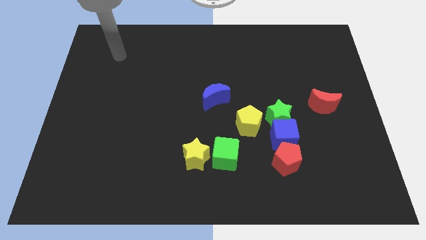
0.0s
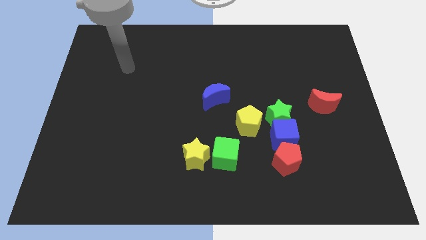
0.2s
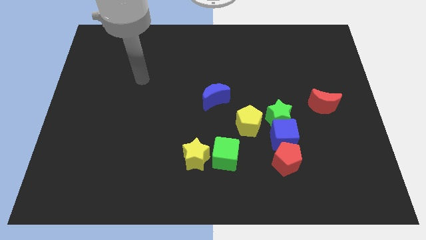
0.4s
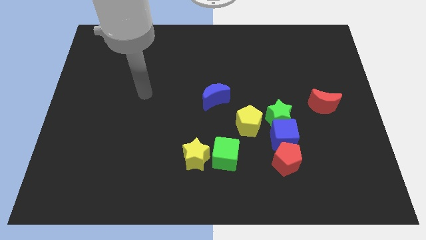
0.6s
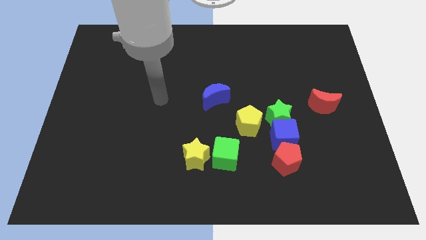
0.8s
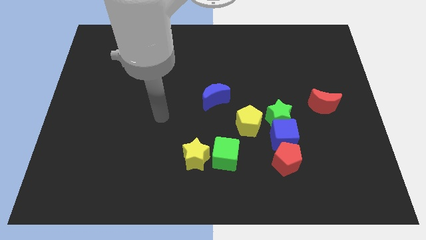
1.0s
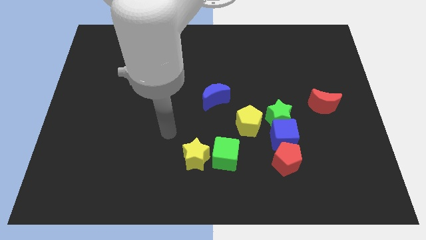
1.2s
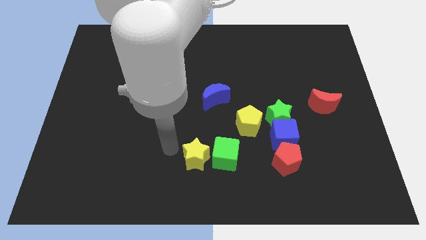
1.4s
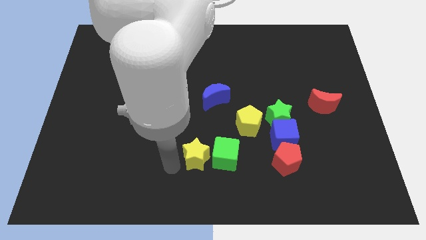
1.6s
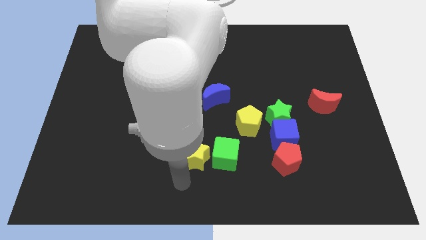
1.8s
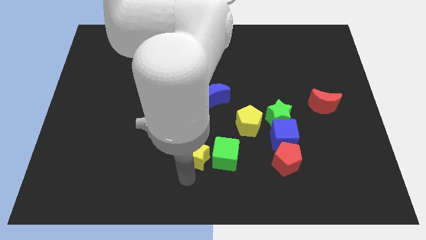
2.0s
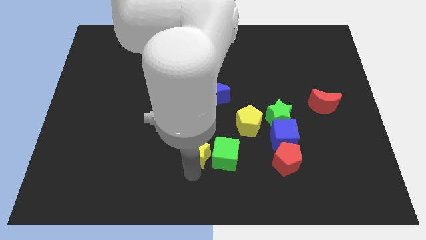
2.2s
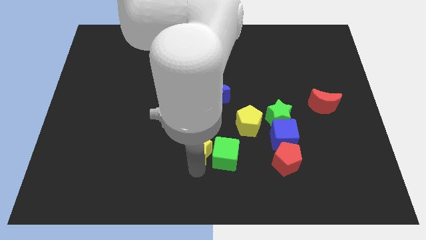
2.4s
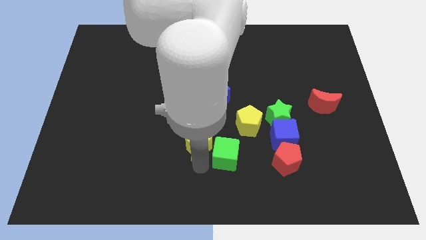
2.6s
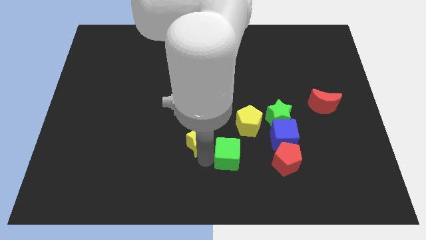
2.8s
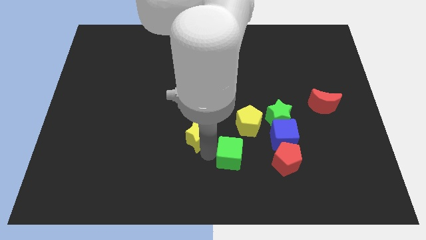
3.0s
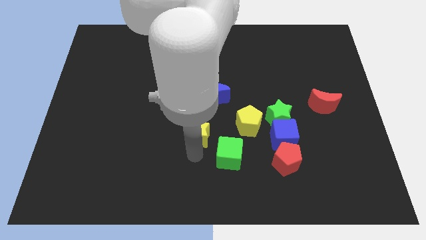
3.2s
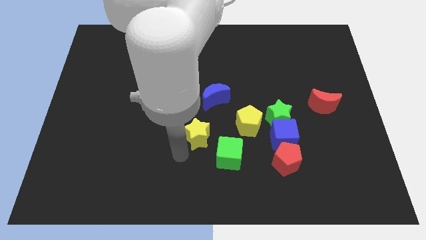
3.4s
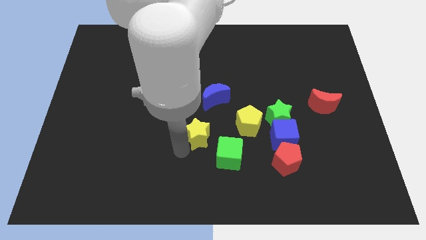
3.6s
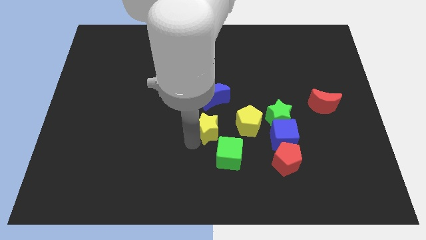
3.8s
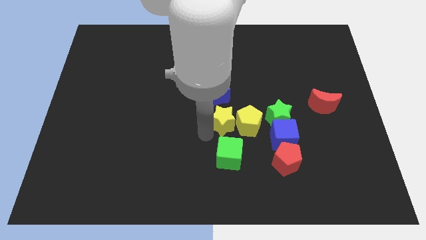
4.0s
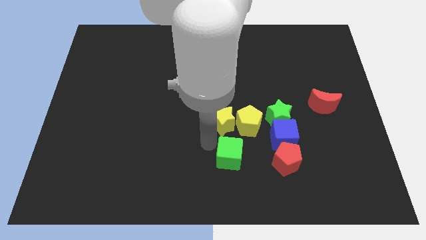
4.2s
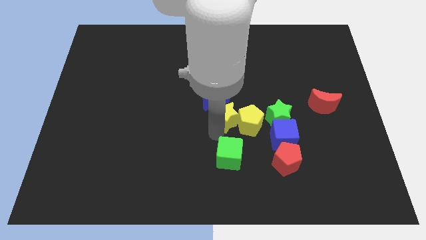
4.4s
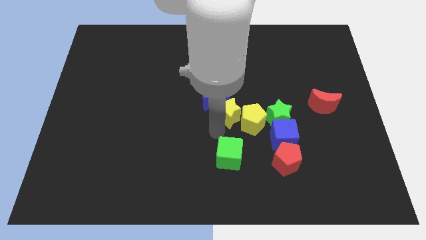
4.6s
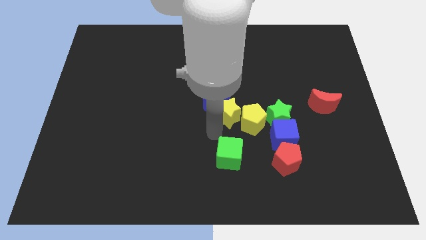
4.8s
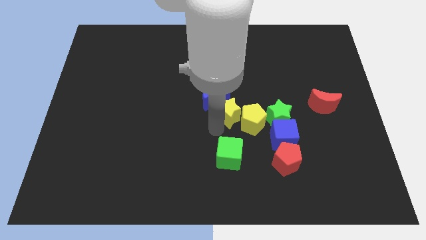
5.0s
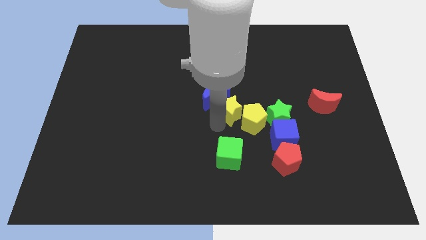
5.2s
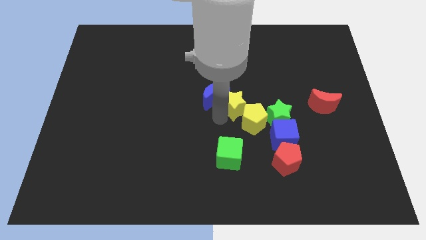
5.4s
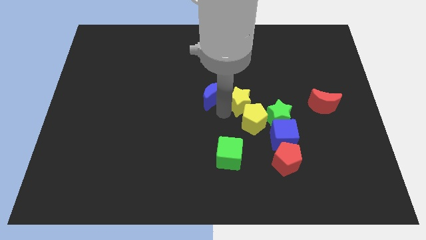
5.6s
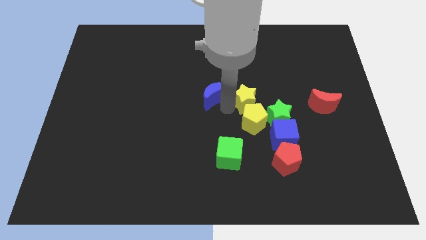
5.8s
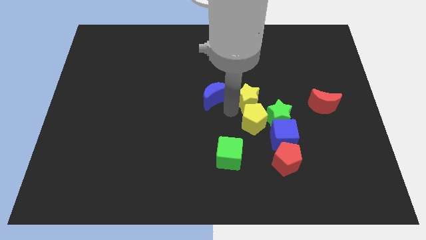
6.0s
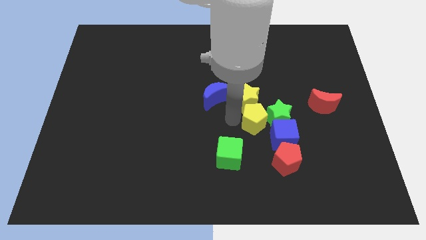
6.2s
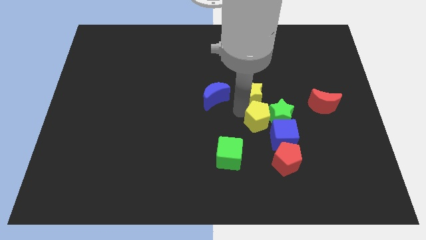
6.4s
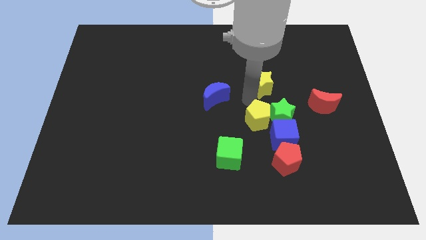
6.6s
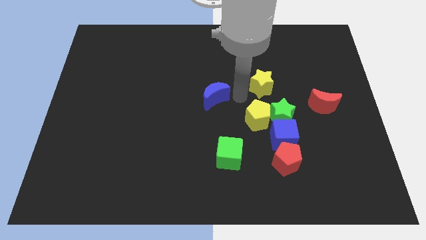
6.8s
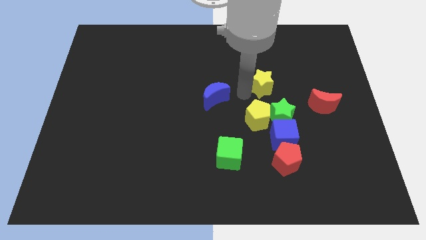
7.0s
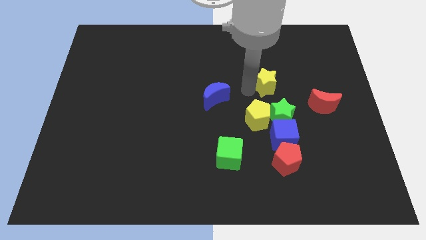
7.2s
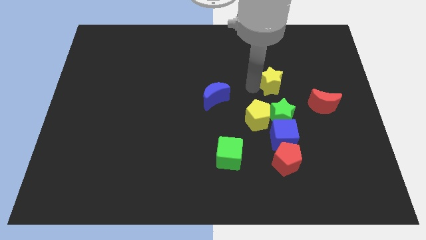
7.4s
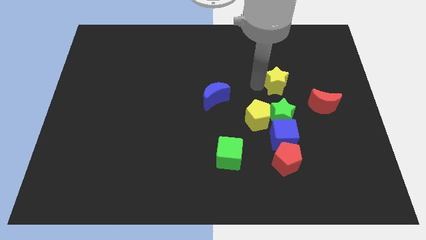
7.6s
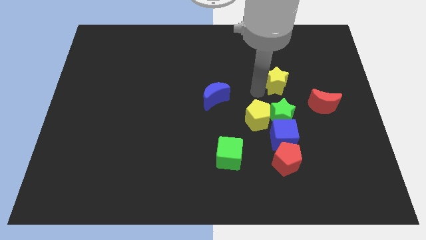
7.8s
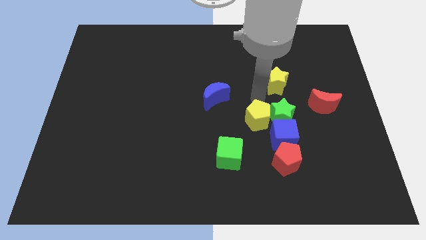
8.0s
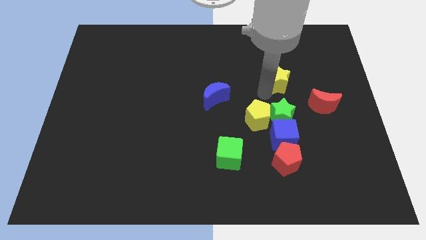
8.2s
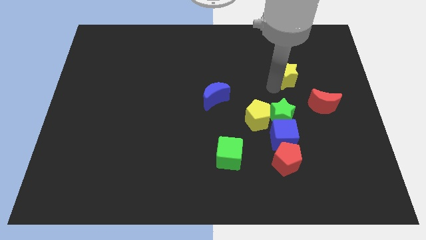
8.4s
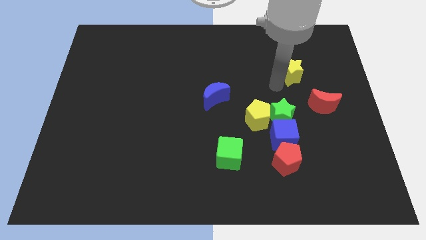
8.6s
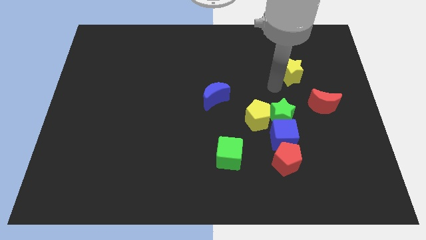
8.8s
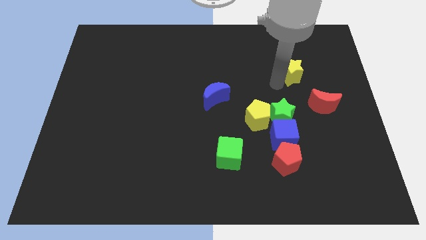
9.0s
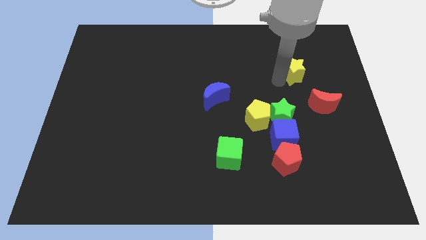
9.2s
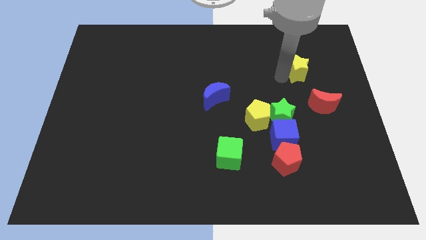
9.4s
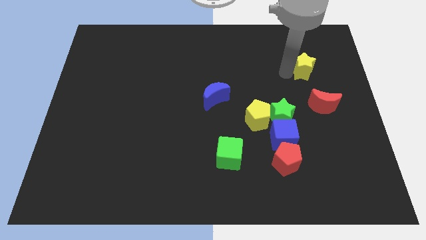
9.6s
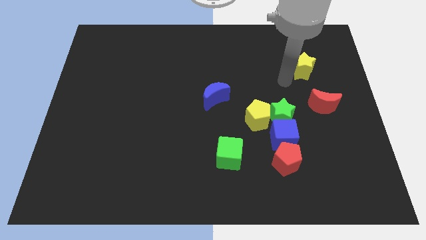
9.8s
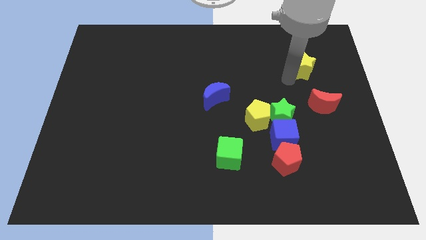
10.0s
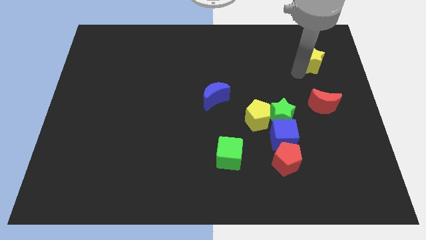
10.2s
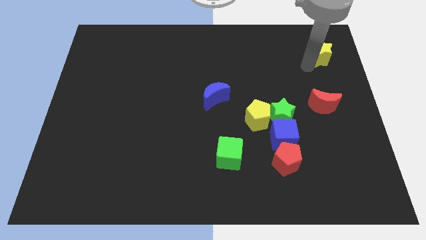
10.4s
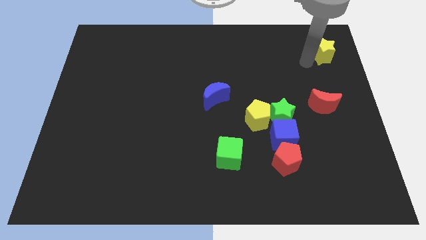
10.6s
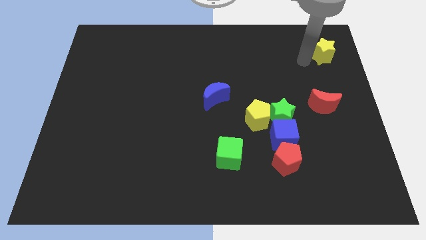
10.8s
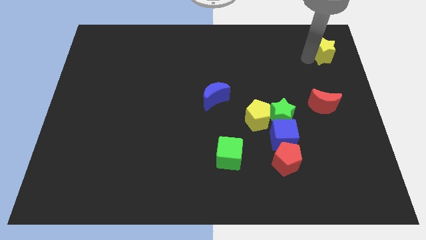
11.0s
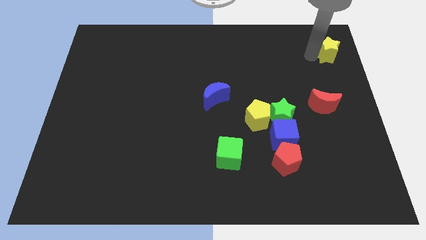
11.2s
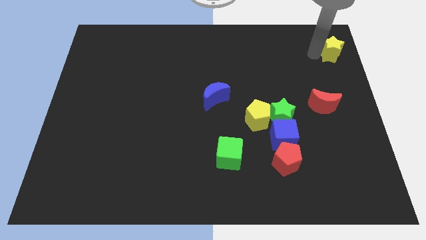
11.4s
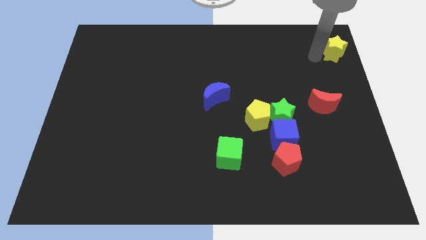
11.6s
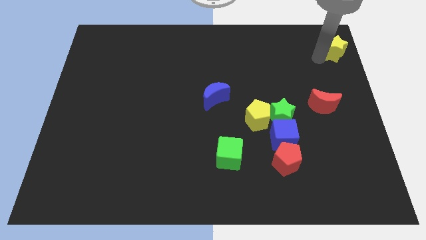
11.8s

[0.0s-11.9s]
move the yellow star to the top right corner
